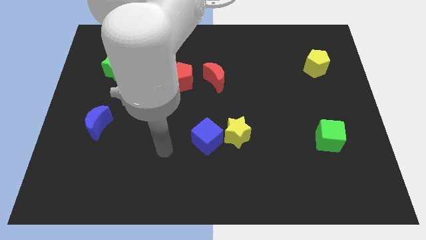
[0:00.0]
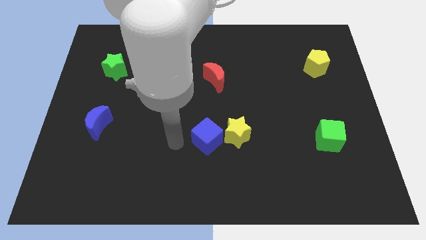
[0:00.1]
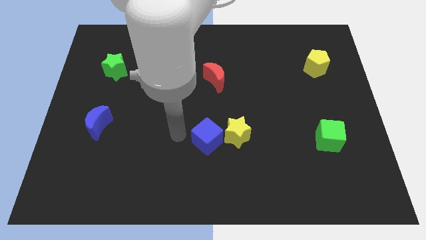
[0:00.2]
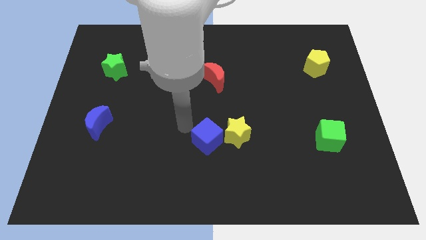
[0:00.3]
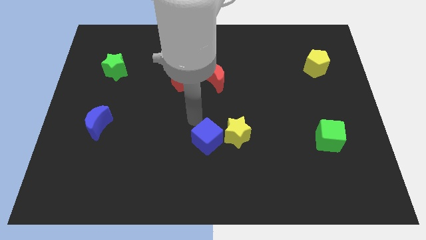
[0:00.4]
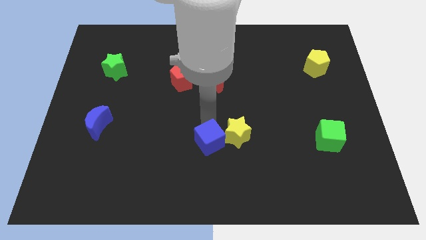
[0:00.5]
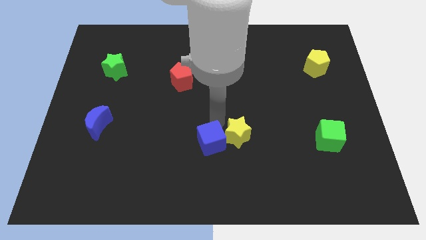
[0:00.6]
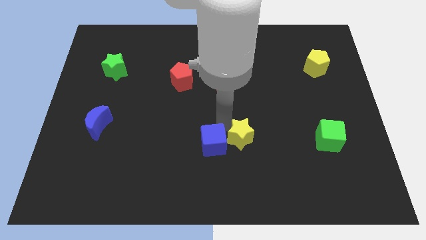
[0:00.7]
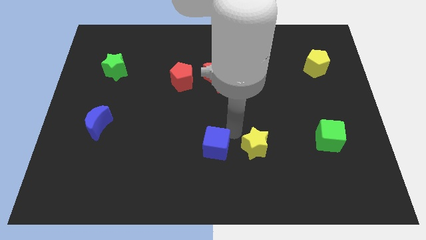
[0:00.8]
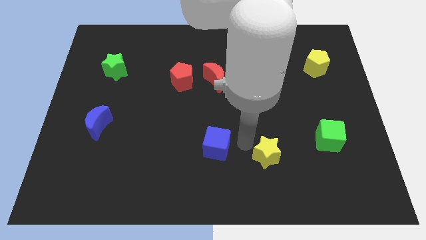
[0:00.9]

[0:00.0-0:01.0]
pull the blue cube apart from the yellow star

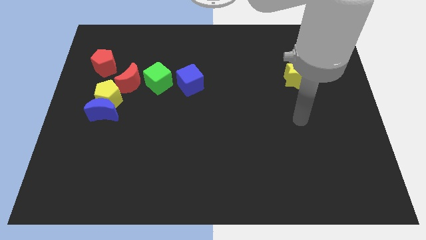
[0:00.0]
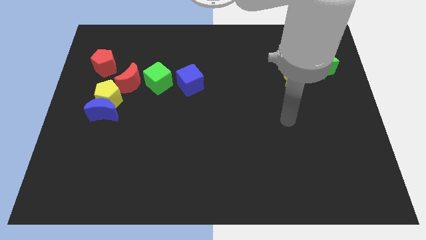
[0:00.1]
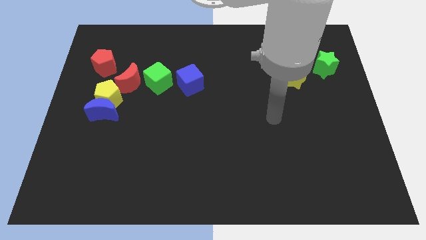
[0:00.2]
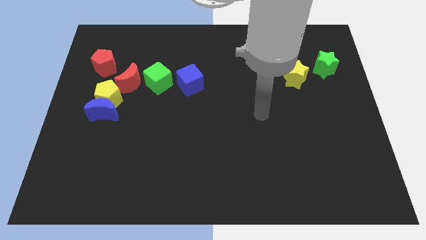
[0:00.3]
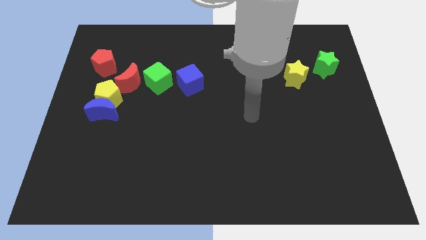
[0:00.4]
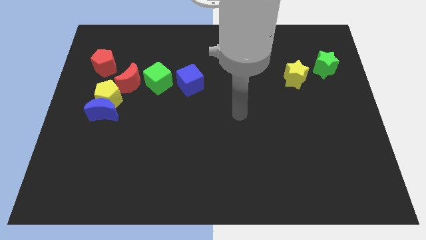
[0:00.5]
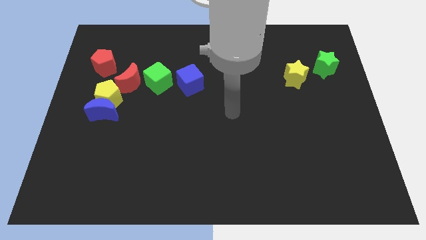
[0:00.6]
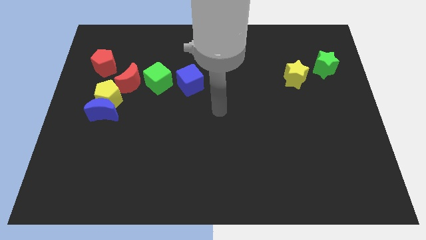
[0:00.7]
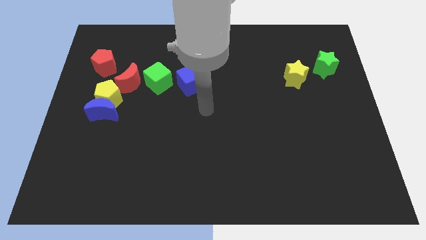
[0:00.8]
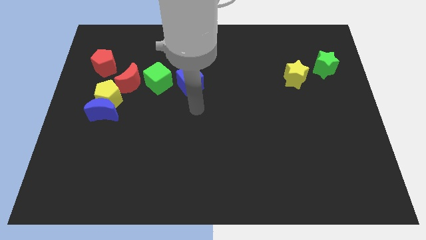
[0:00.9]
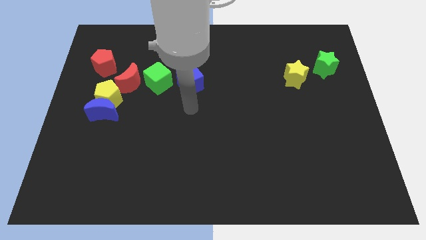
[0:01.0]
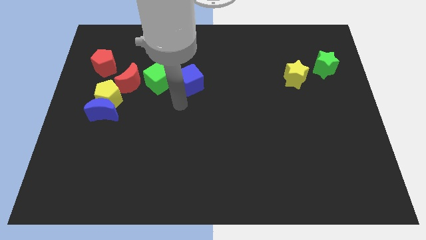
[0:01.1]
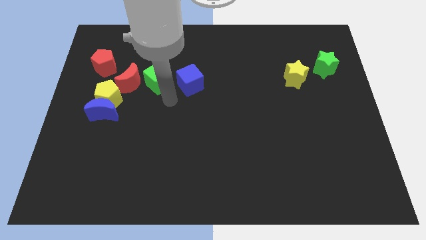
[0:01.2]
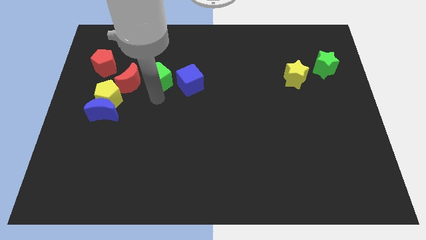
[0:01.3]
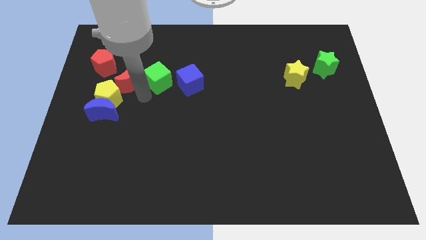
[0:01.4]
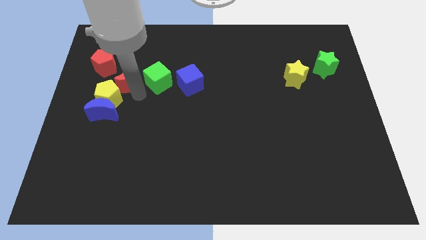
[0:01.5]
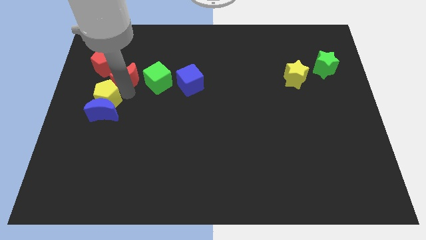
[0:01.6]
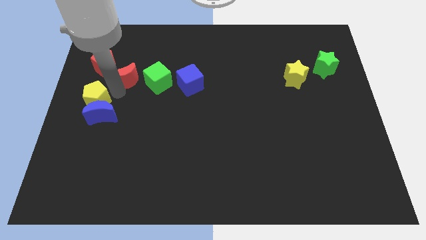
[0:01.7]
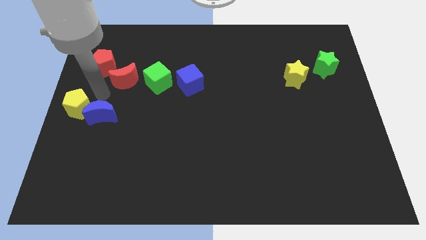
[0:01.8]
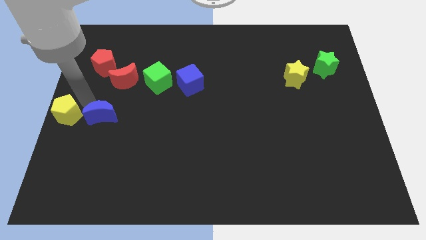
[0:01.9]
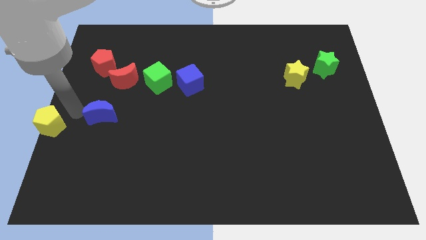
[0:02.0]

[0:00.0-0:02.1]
move the blue moon away from the yellow pentagon

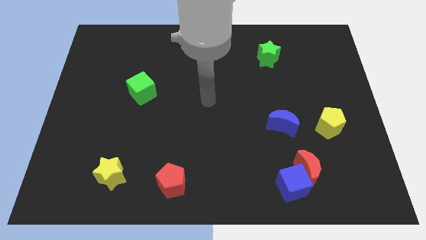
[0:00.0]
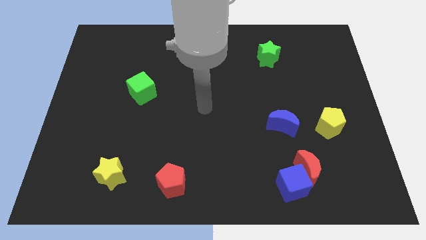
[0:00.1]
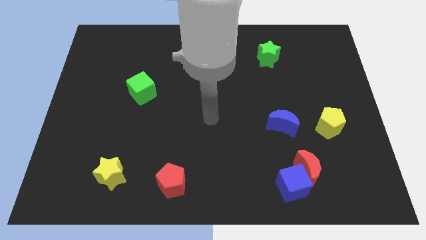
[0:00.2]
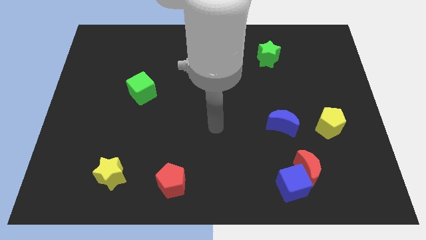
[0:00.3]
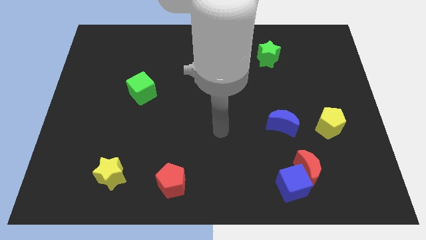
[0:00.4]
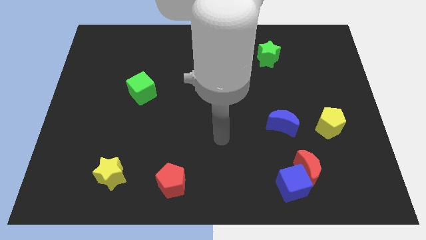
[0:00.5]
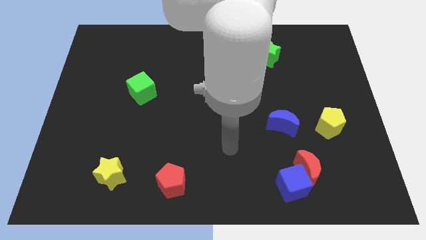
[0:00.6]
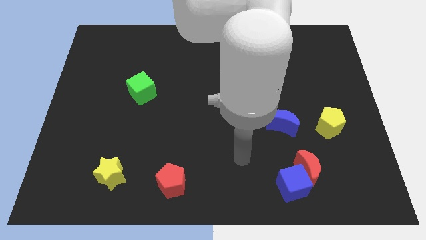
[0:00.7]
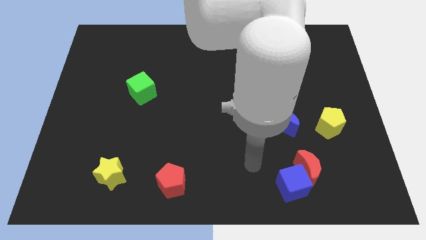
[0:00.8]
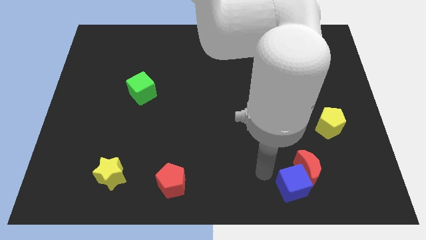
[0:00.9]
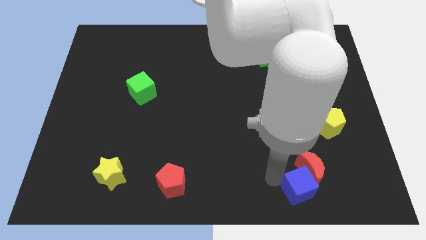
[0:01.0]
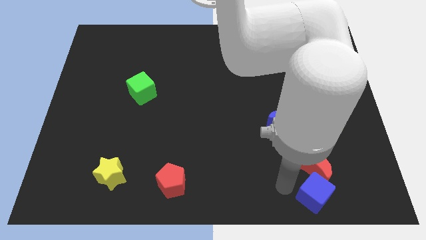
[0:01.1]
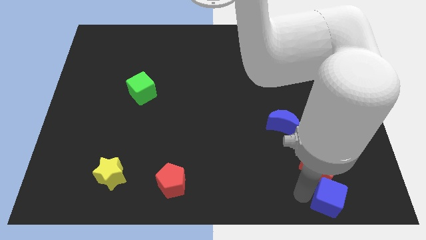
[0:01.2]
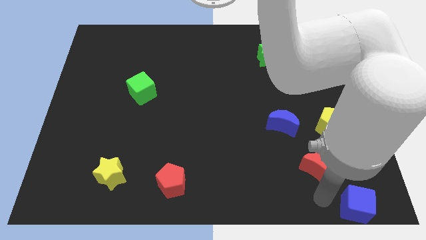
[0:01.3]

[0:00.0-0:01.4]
move the red moon away from the blue cube

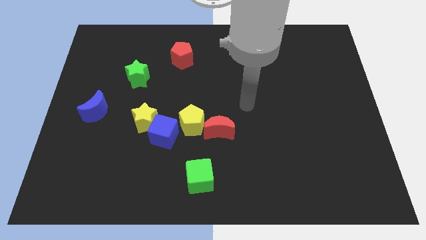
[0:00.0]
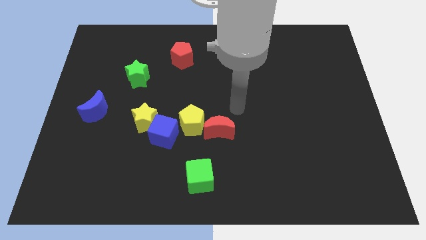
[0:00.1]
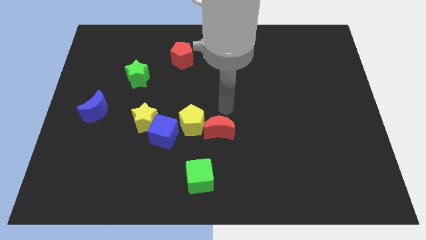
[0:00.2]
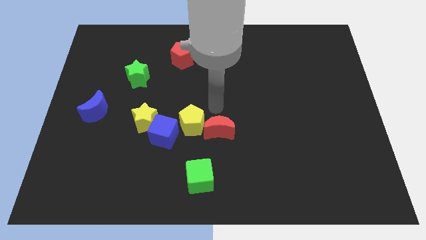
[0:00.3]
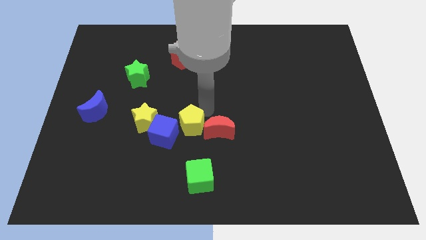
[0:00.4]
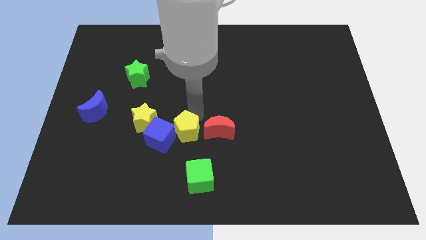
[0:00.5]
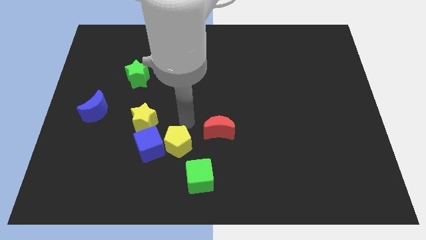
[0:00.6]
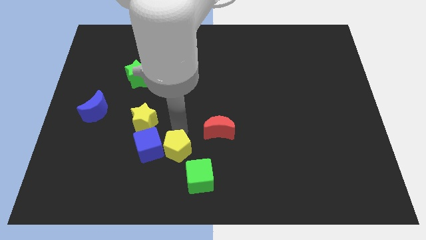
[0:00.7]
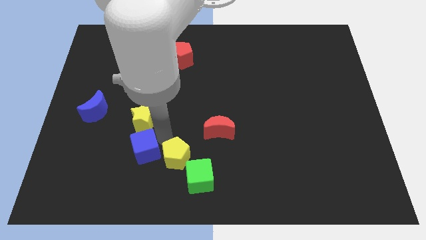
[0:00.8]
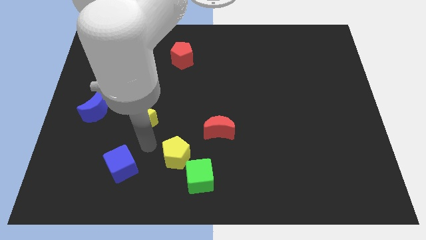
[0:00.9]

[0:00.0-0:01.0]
move the yellow star away from the blue cube

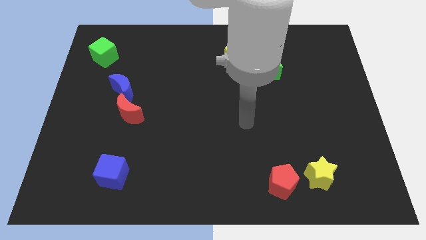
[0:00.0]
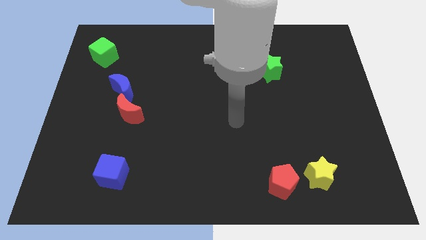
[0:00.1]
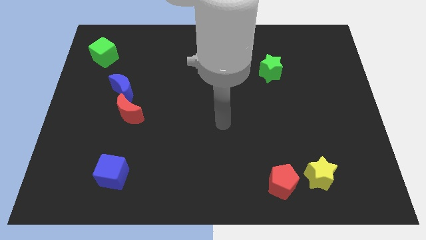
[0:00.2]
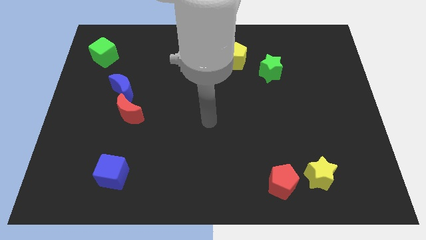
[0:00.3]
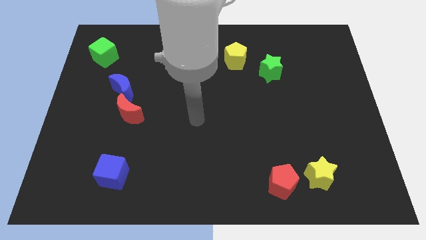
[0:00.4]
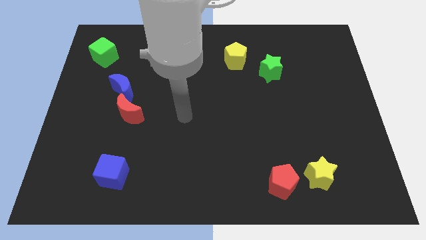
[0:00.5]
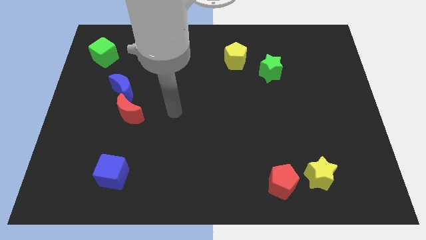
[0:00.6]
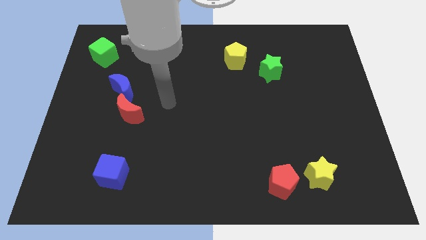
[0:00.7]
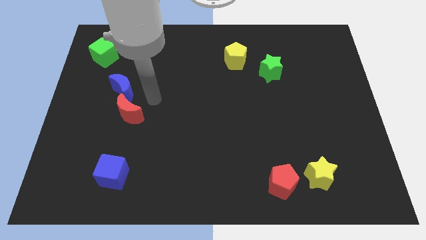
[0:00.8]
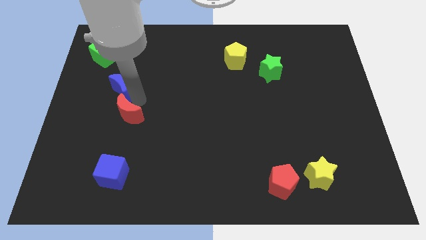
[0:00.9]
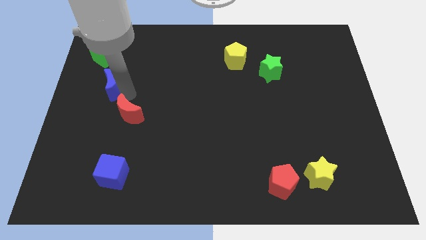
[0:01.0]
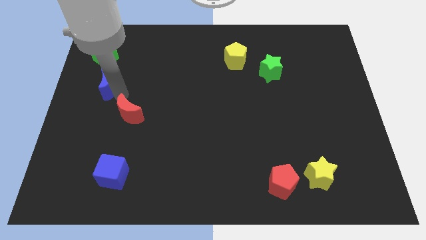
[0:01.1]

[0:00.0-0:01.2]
pull the red moon apart from the blue moon

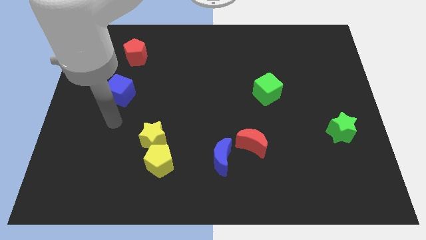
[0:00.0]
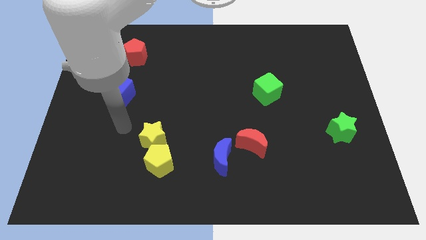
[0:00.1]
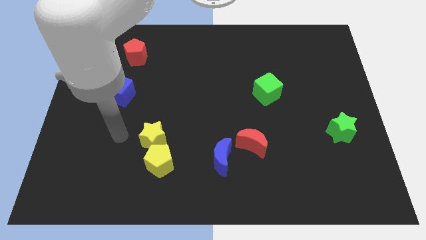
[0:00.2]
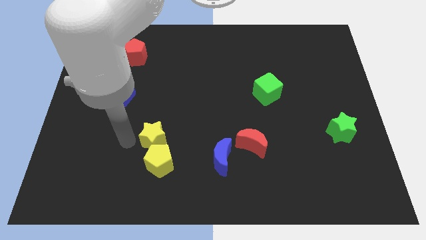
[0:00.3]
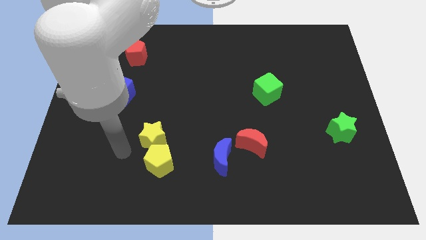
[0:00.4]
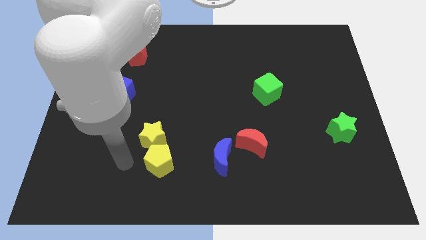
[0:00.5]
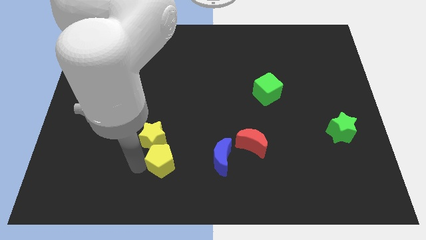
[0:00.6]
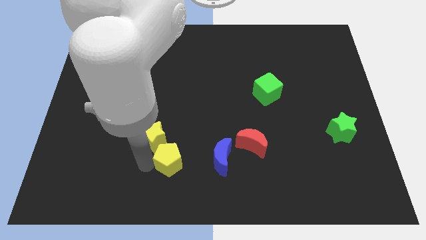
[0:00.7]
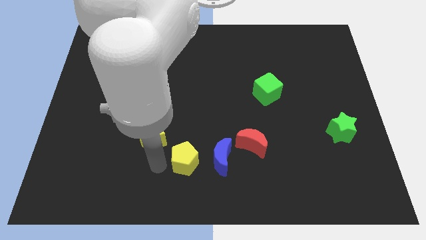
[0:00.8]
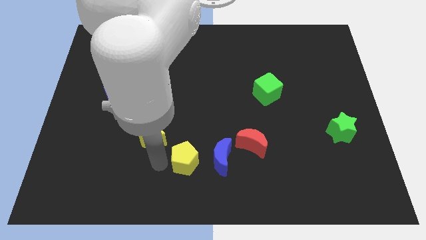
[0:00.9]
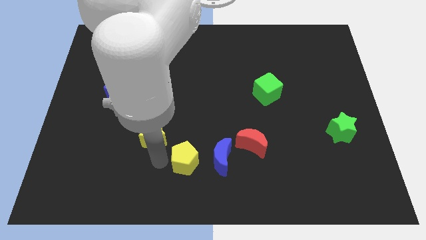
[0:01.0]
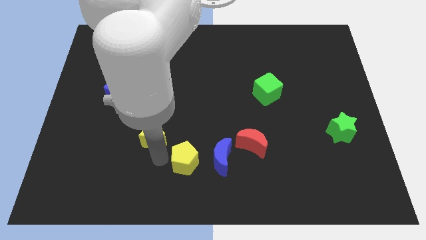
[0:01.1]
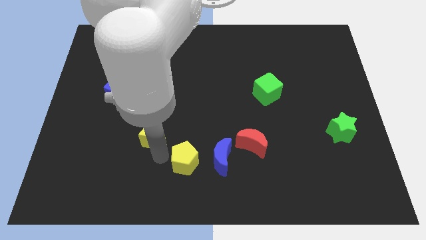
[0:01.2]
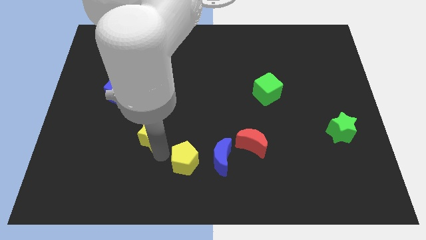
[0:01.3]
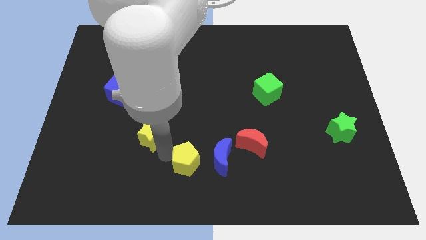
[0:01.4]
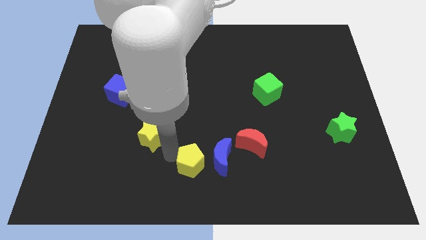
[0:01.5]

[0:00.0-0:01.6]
separate the yellow star from the yellow pentagon

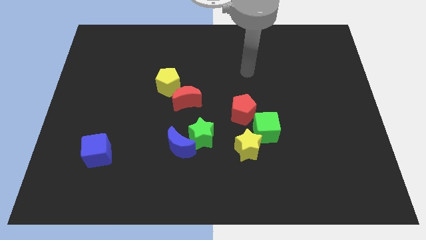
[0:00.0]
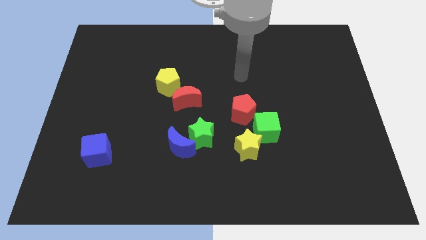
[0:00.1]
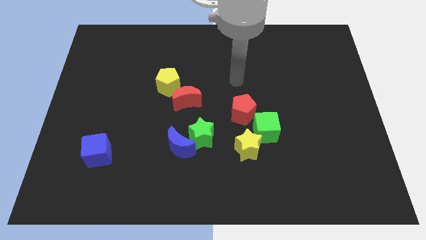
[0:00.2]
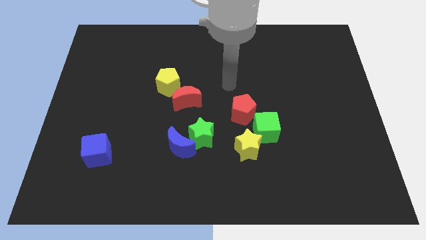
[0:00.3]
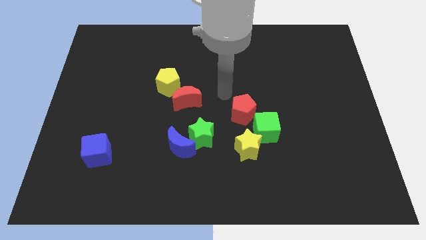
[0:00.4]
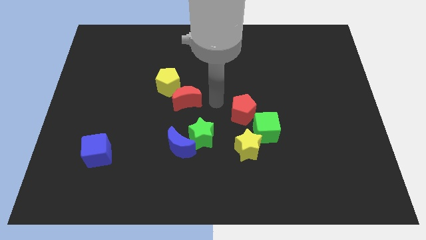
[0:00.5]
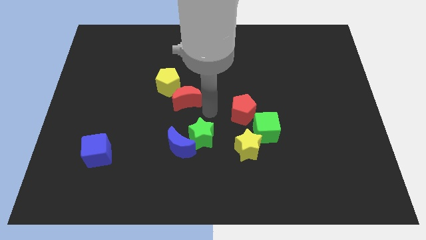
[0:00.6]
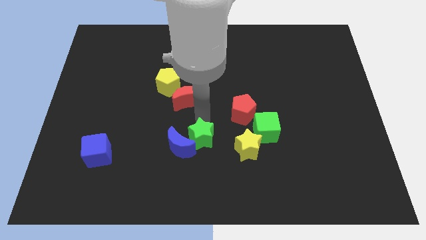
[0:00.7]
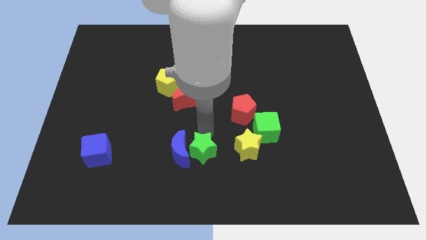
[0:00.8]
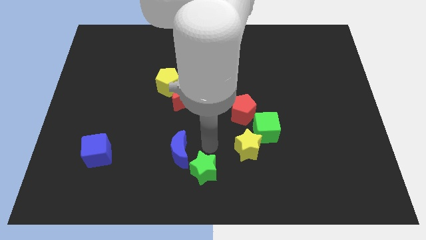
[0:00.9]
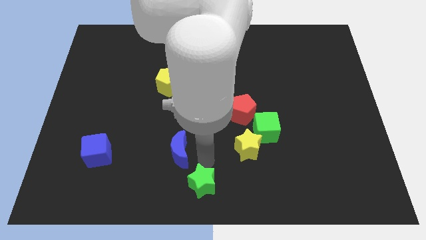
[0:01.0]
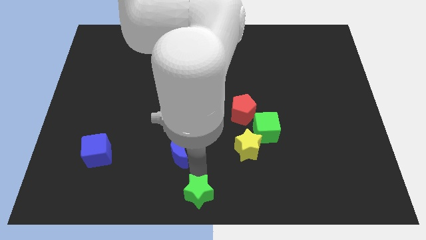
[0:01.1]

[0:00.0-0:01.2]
separate the blue moon from the green star
